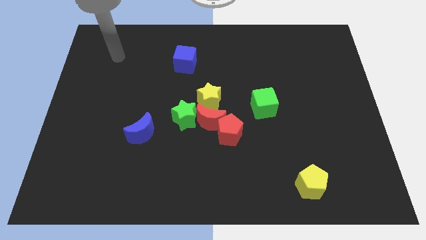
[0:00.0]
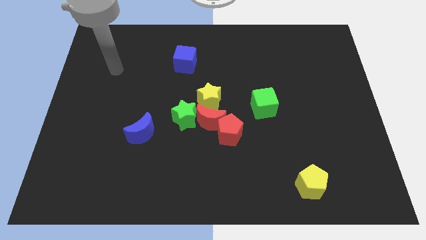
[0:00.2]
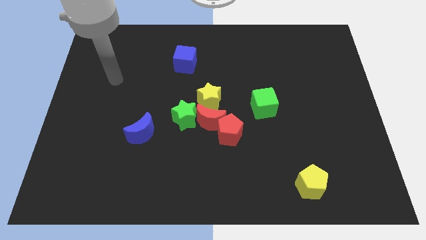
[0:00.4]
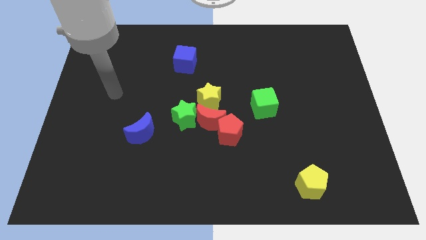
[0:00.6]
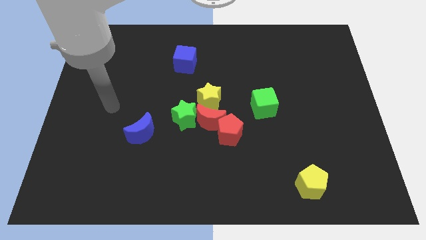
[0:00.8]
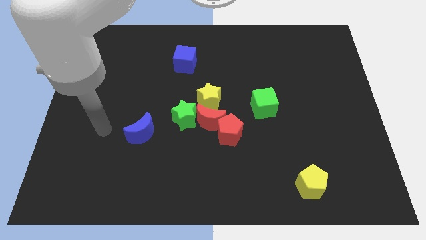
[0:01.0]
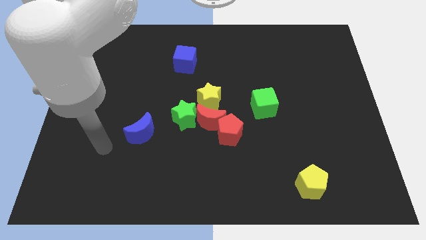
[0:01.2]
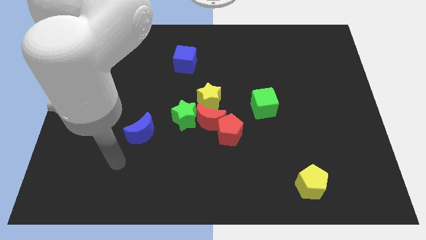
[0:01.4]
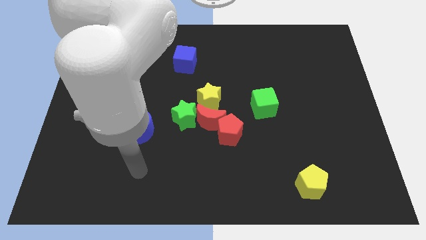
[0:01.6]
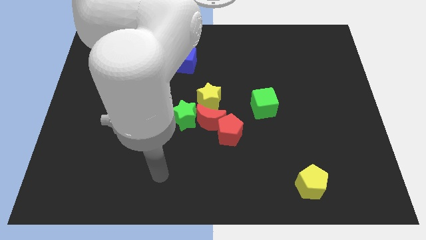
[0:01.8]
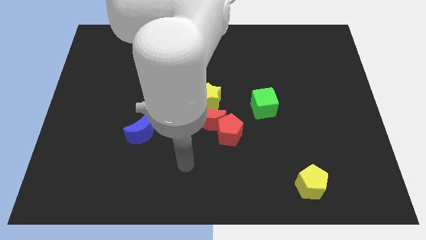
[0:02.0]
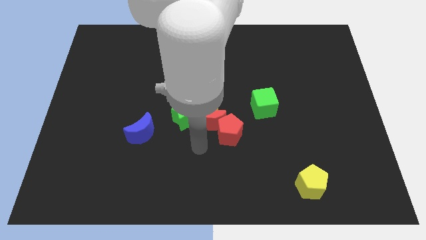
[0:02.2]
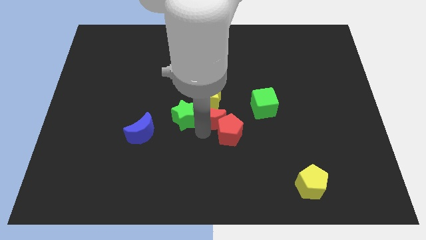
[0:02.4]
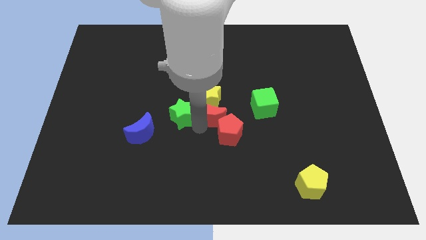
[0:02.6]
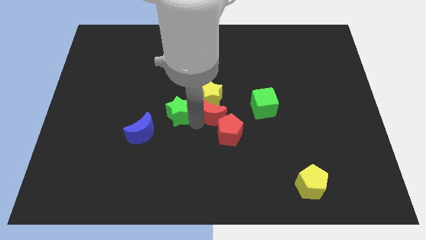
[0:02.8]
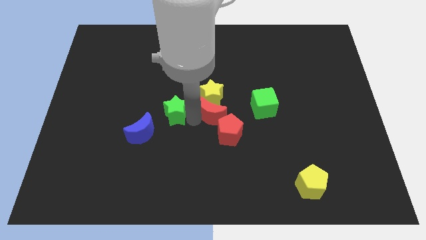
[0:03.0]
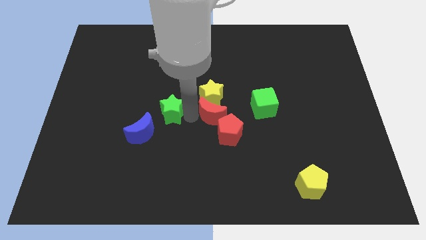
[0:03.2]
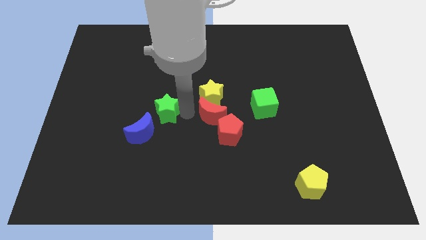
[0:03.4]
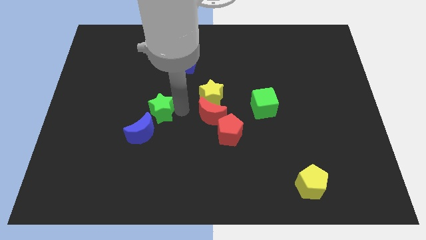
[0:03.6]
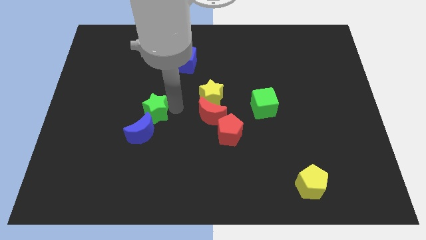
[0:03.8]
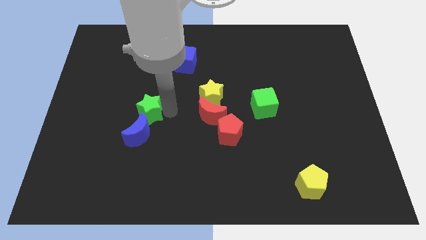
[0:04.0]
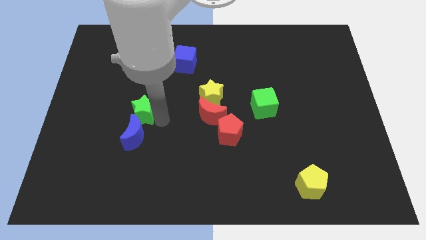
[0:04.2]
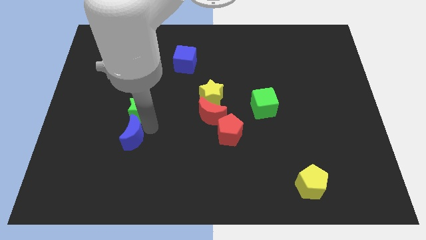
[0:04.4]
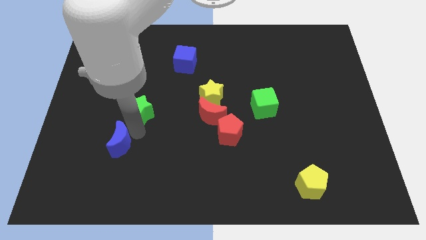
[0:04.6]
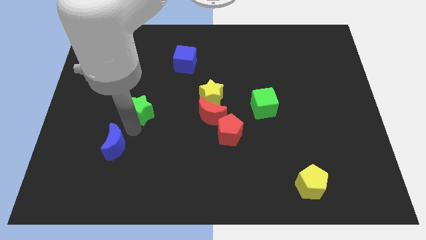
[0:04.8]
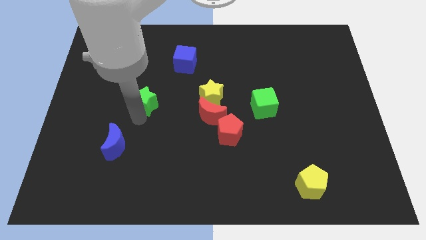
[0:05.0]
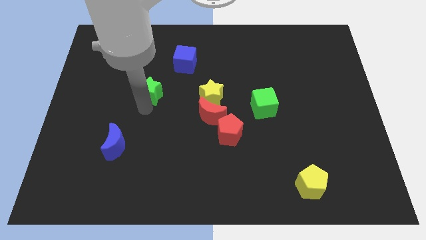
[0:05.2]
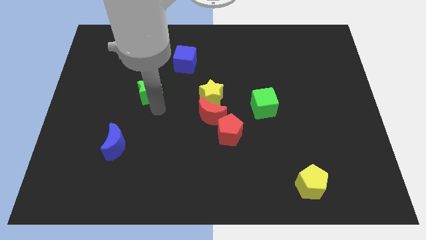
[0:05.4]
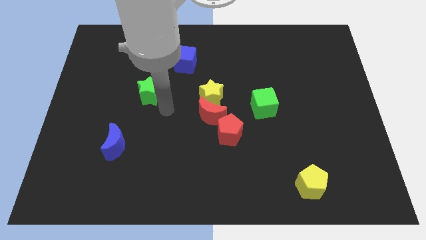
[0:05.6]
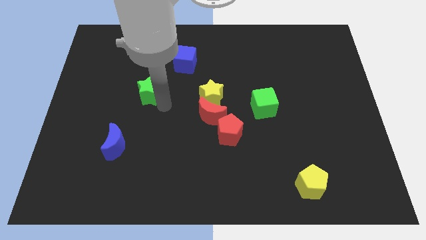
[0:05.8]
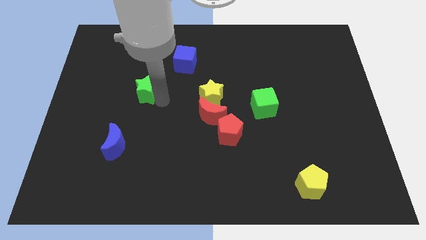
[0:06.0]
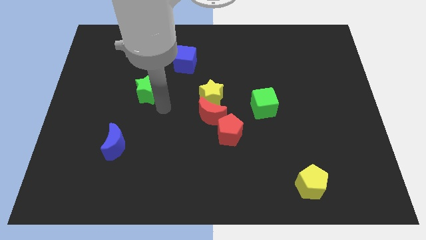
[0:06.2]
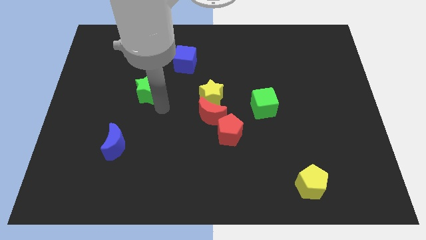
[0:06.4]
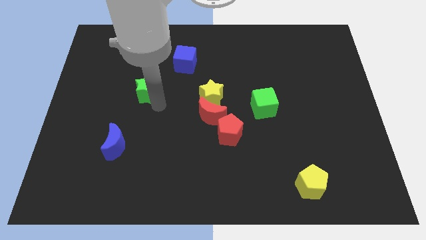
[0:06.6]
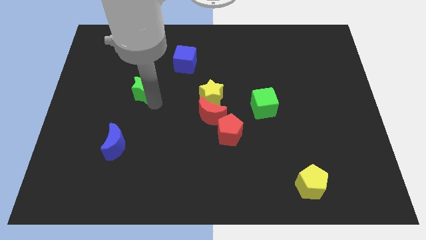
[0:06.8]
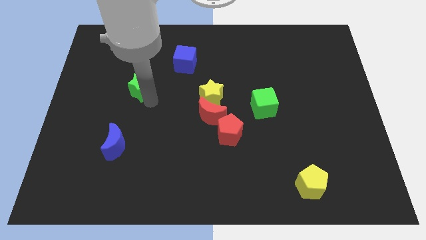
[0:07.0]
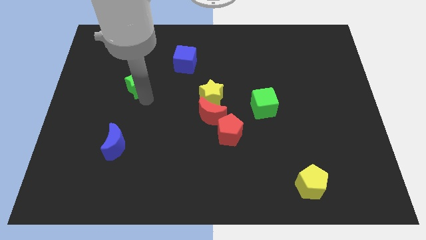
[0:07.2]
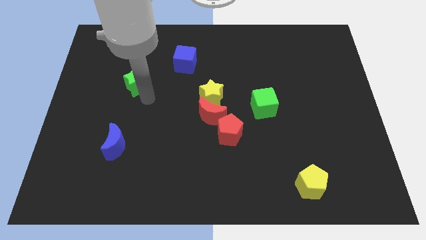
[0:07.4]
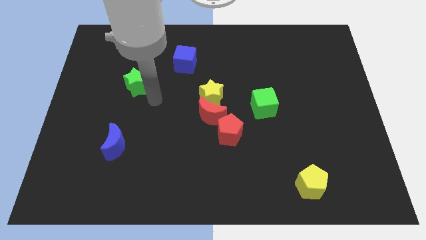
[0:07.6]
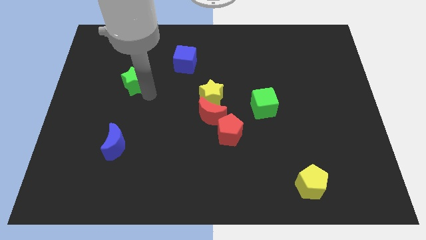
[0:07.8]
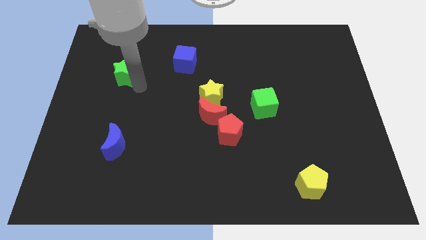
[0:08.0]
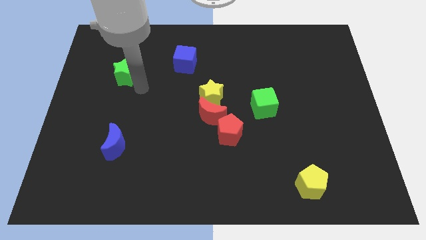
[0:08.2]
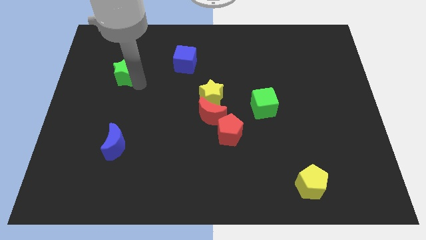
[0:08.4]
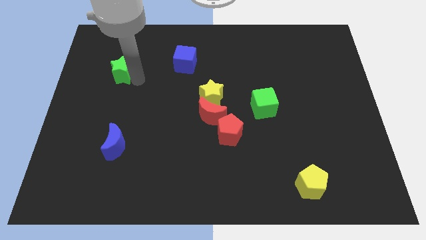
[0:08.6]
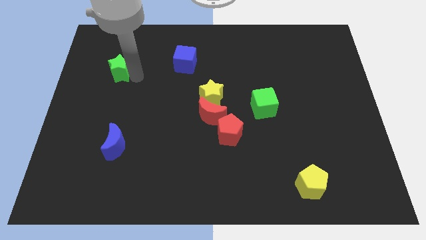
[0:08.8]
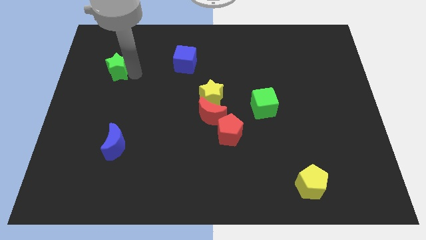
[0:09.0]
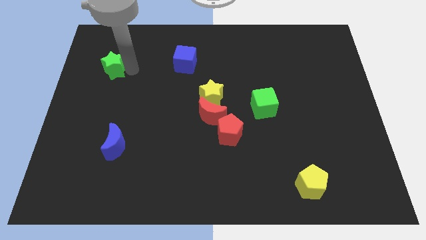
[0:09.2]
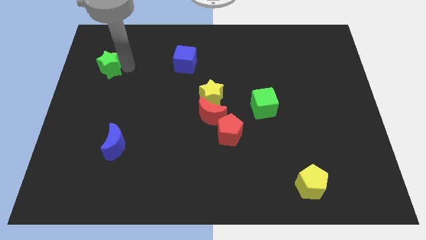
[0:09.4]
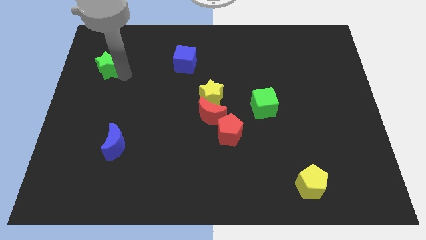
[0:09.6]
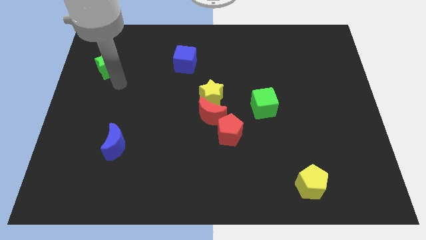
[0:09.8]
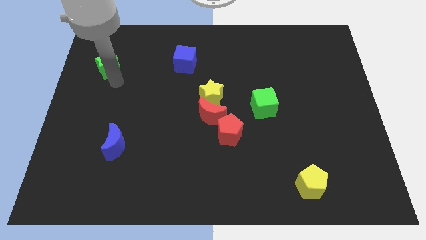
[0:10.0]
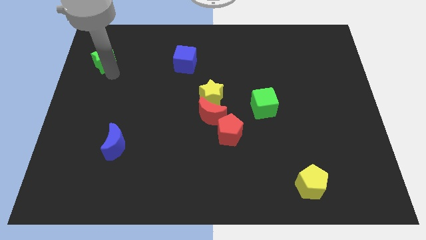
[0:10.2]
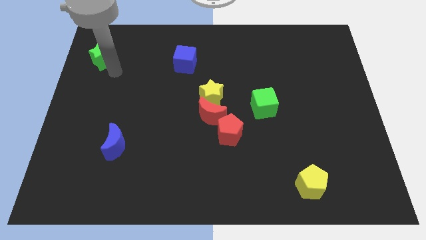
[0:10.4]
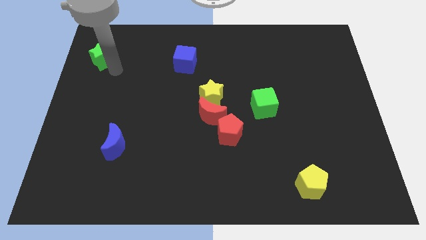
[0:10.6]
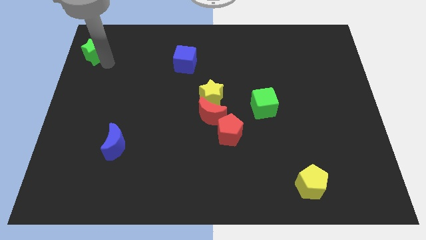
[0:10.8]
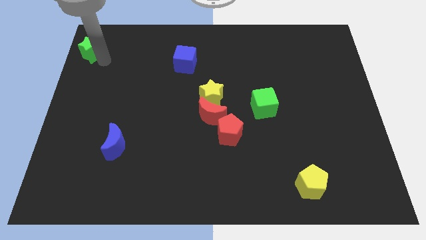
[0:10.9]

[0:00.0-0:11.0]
put the green star to the top left corner

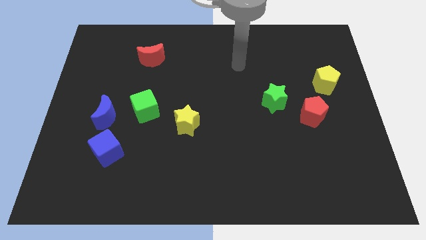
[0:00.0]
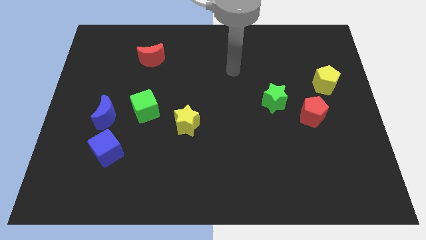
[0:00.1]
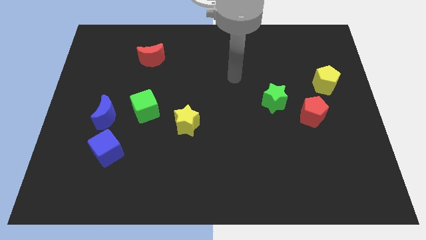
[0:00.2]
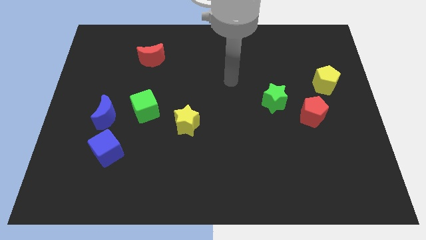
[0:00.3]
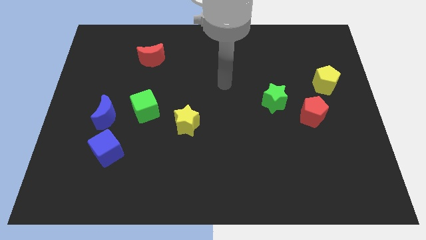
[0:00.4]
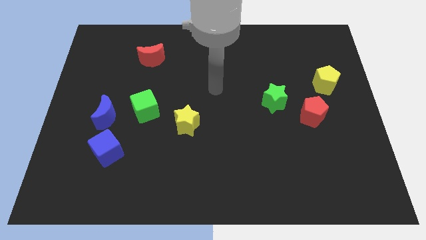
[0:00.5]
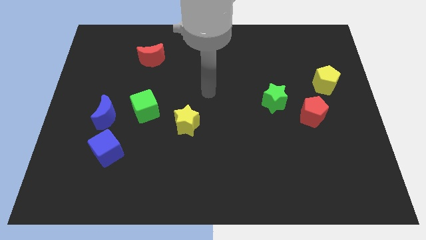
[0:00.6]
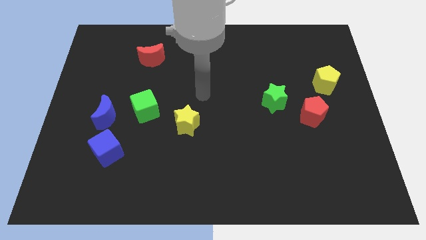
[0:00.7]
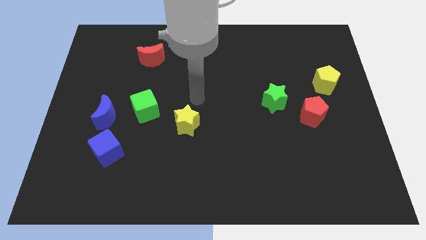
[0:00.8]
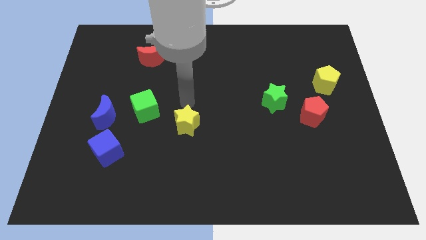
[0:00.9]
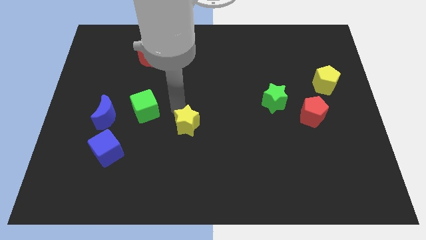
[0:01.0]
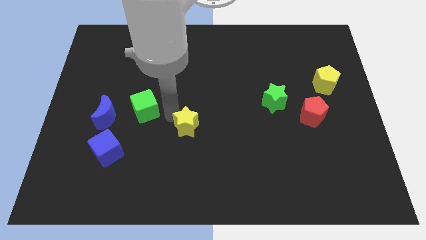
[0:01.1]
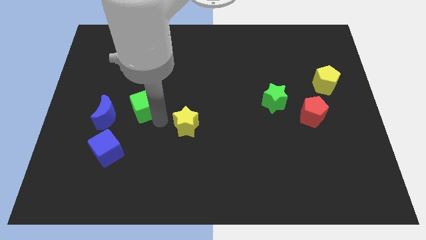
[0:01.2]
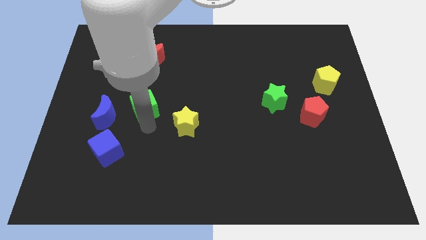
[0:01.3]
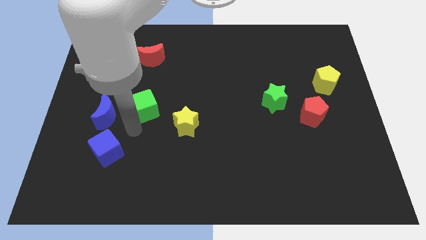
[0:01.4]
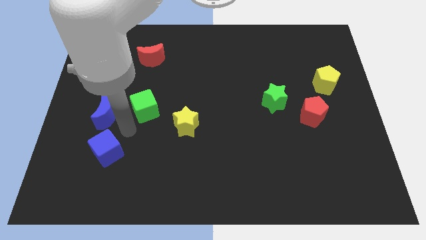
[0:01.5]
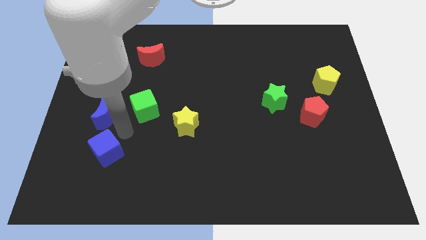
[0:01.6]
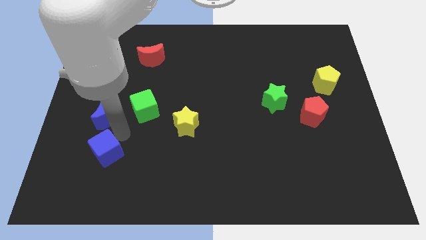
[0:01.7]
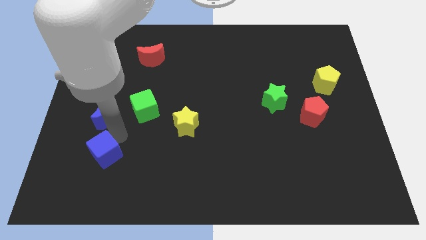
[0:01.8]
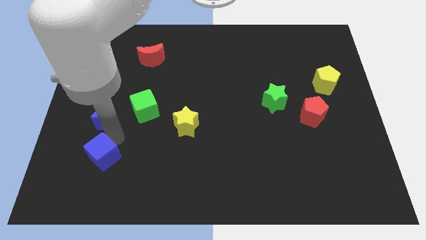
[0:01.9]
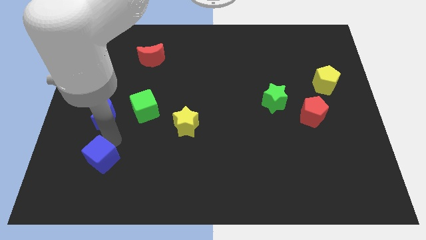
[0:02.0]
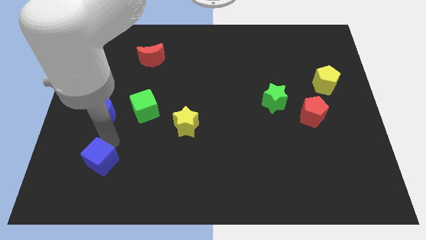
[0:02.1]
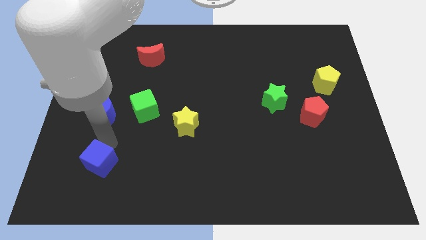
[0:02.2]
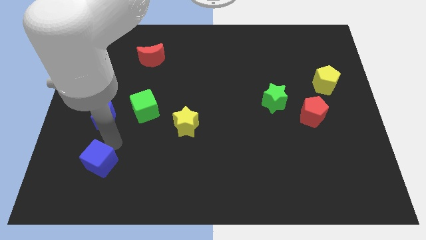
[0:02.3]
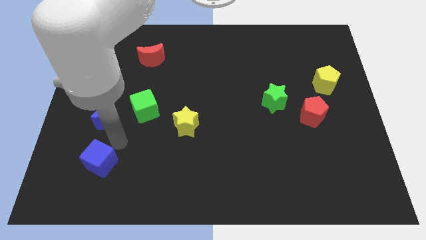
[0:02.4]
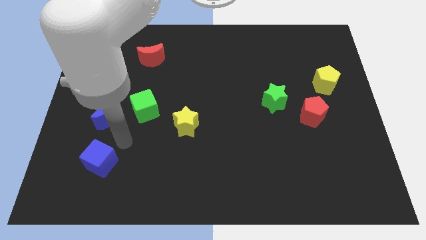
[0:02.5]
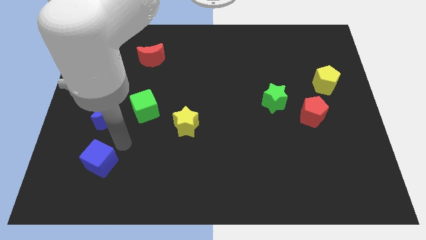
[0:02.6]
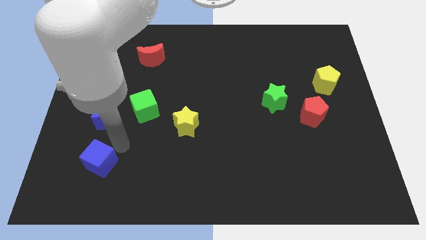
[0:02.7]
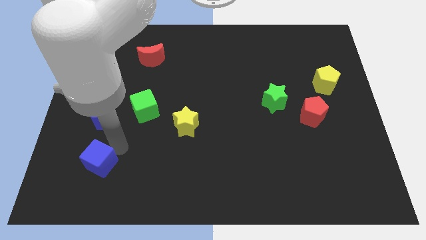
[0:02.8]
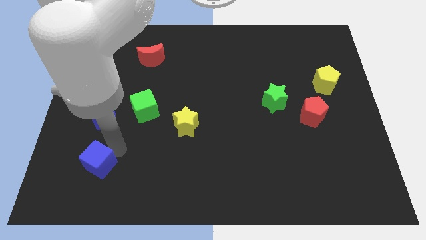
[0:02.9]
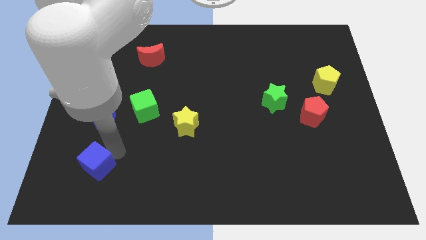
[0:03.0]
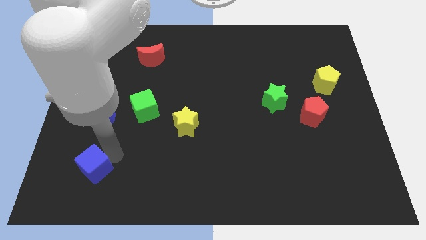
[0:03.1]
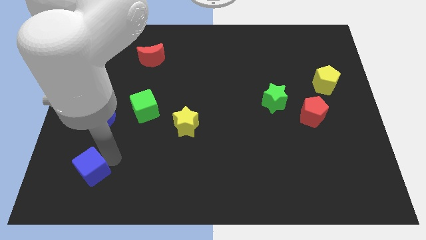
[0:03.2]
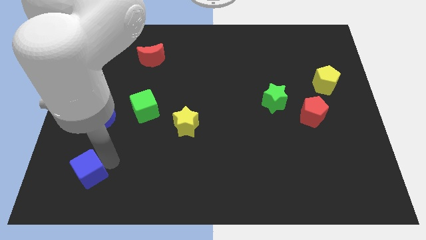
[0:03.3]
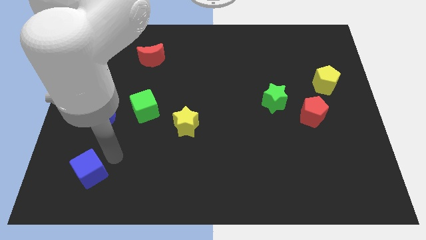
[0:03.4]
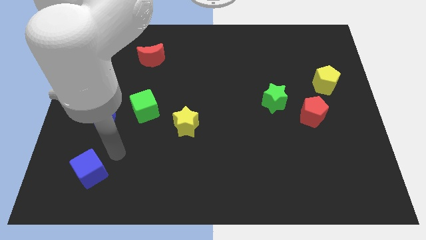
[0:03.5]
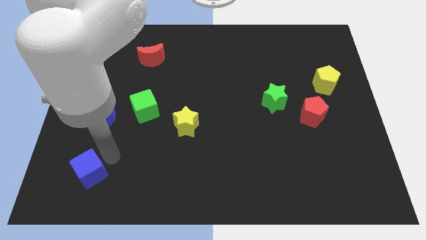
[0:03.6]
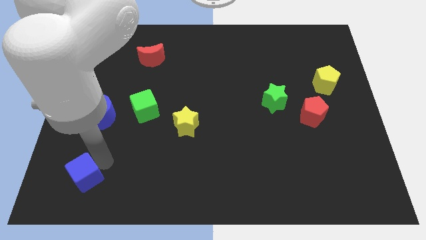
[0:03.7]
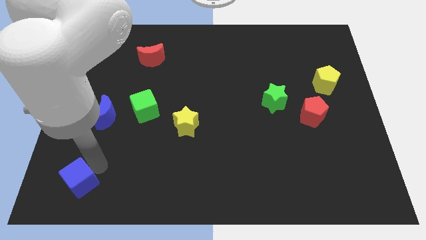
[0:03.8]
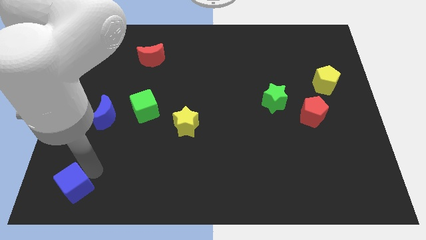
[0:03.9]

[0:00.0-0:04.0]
push the blue cube to the bottom left corner
